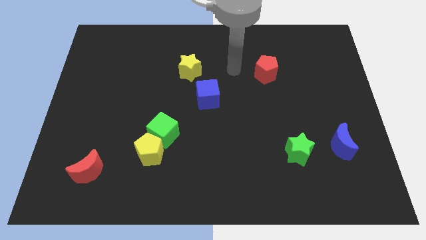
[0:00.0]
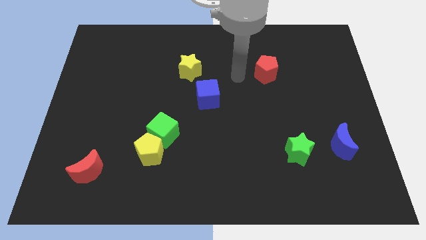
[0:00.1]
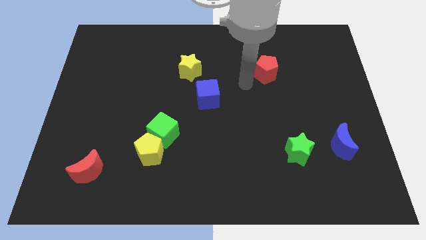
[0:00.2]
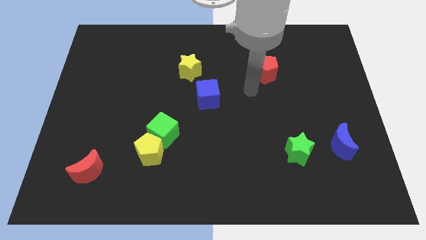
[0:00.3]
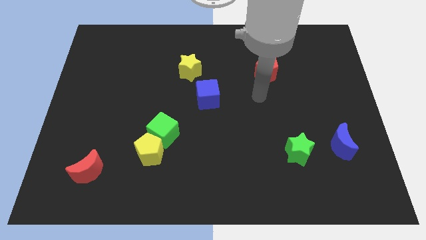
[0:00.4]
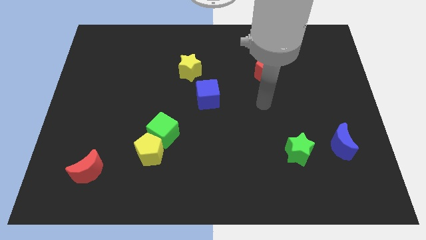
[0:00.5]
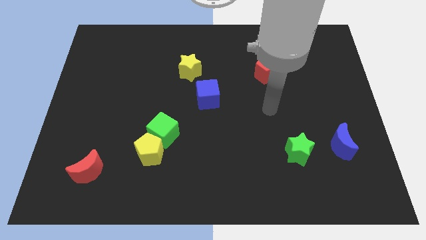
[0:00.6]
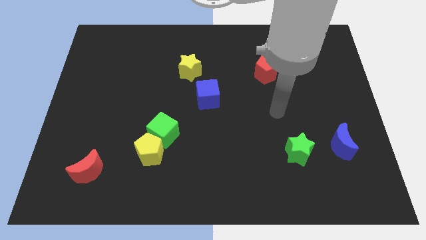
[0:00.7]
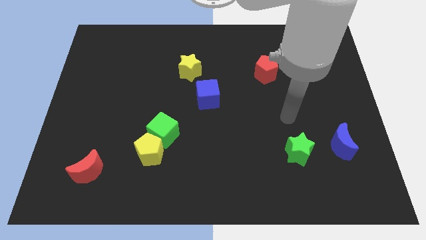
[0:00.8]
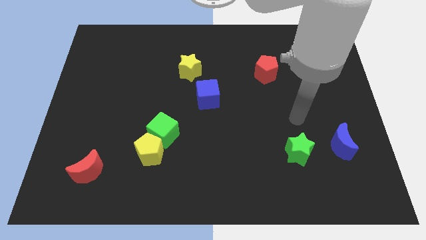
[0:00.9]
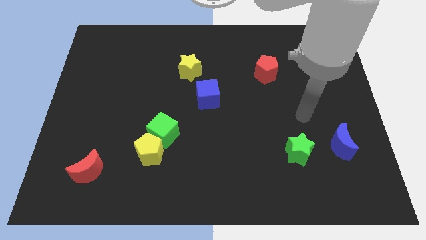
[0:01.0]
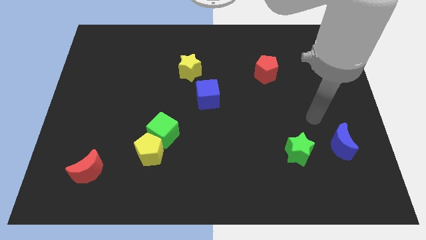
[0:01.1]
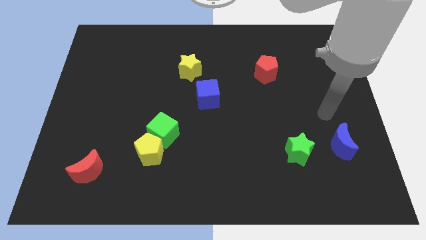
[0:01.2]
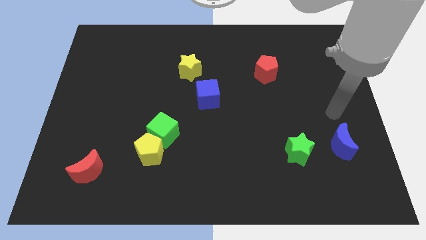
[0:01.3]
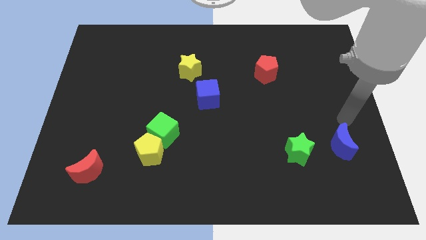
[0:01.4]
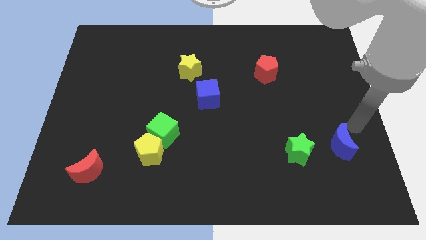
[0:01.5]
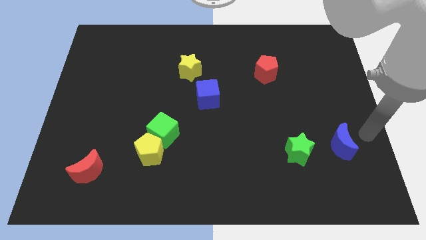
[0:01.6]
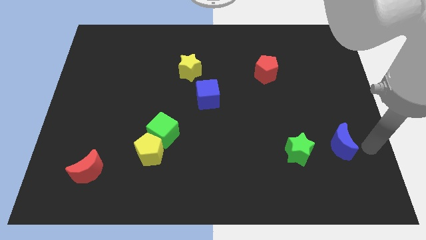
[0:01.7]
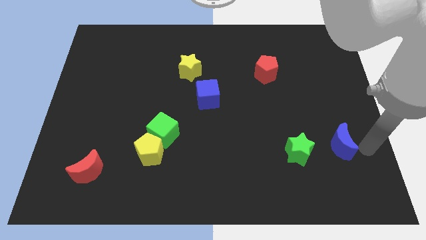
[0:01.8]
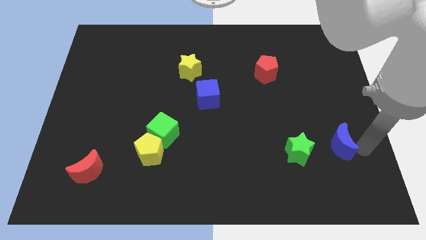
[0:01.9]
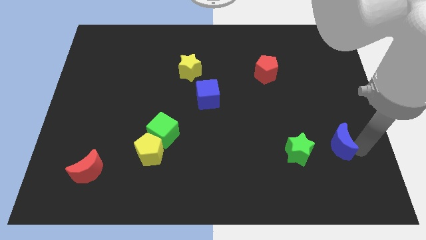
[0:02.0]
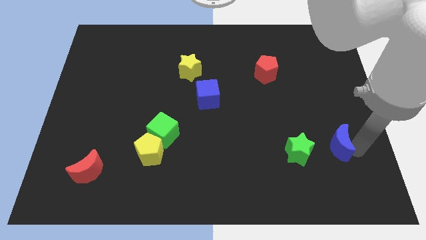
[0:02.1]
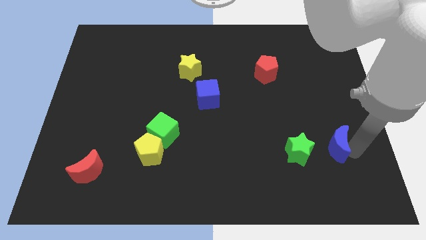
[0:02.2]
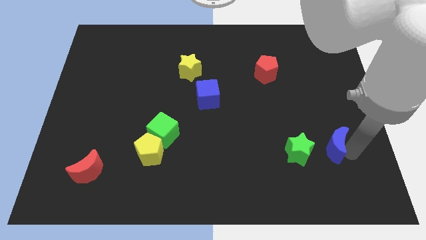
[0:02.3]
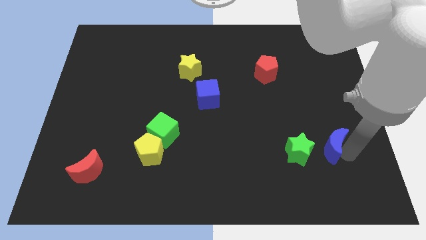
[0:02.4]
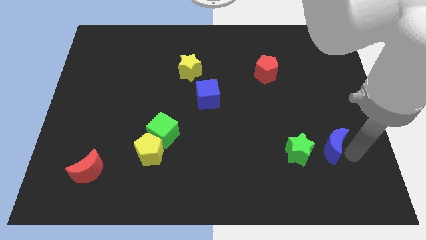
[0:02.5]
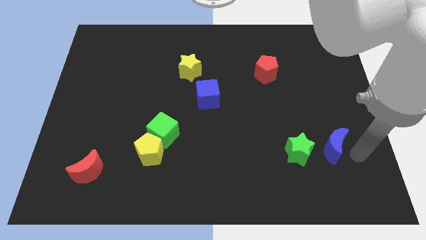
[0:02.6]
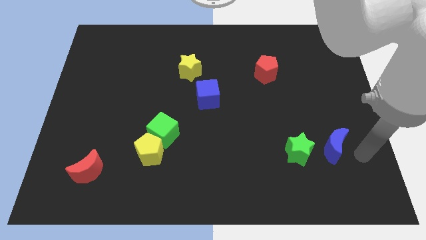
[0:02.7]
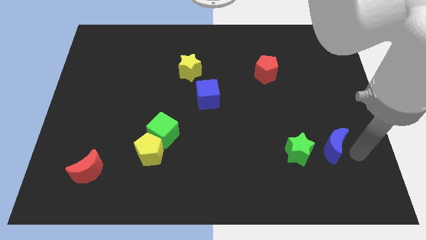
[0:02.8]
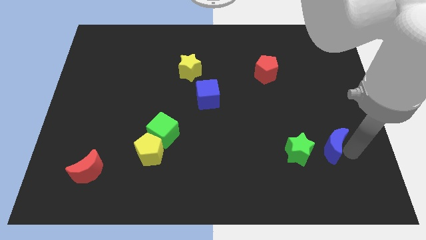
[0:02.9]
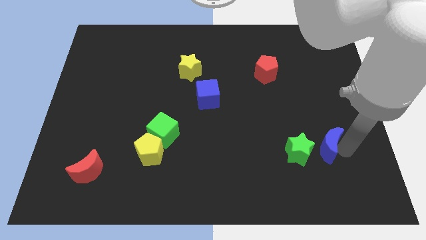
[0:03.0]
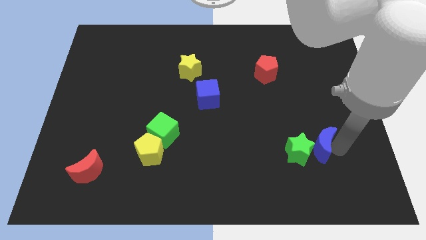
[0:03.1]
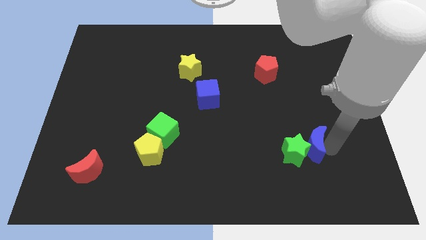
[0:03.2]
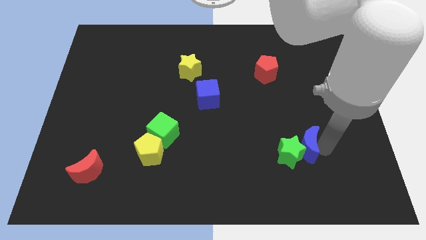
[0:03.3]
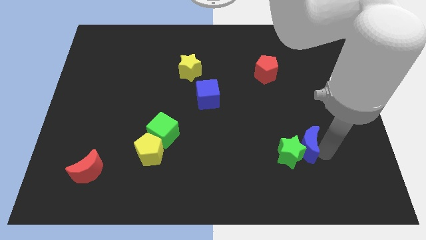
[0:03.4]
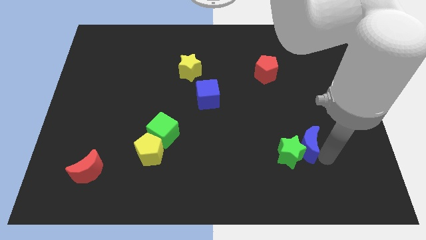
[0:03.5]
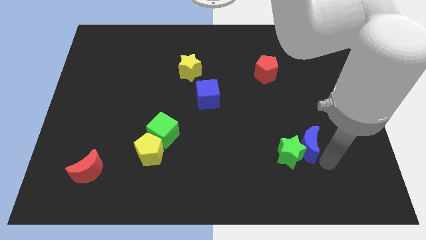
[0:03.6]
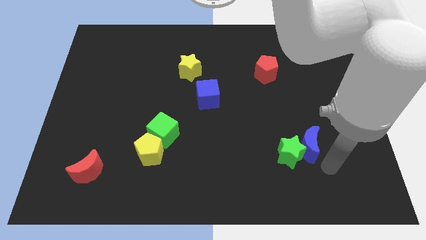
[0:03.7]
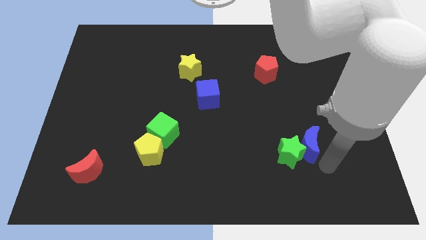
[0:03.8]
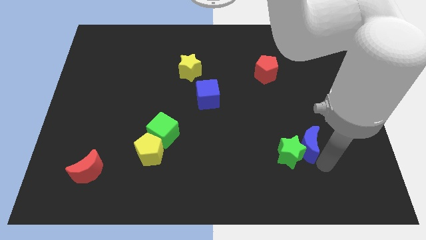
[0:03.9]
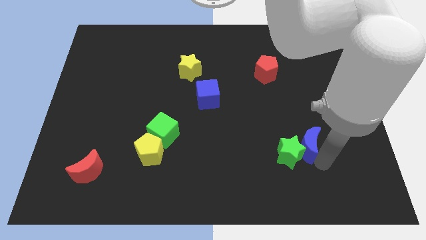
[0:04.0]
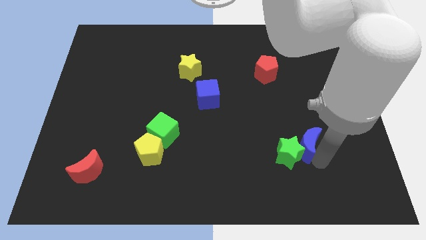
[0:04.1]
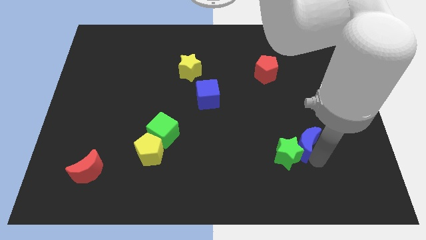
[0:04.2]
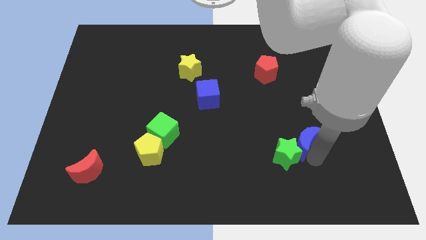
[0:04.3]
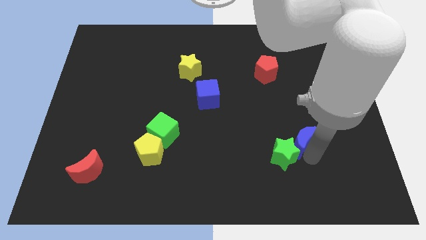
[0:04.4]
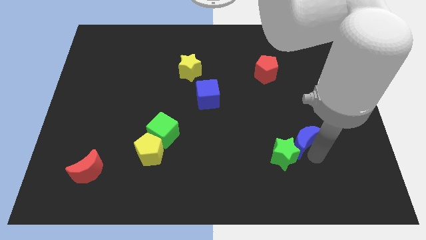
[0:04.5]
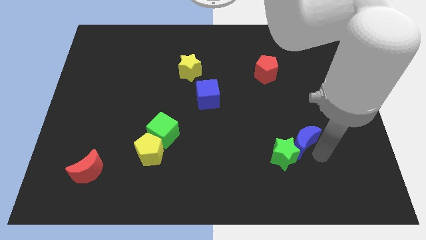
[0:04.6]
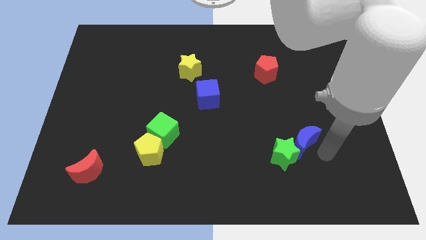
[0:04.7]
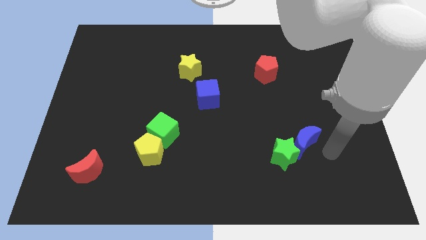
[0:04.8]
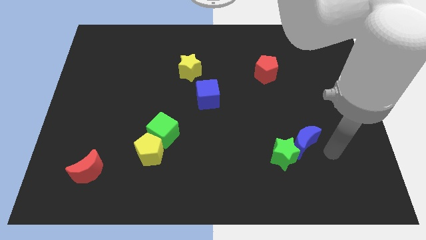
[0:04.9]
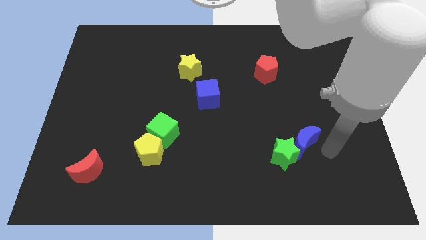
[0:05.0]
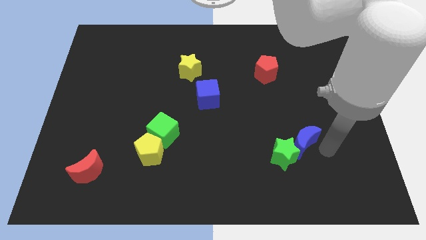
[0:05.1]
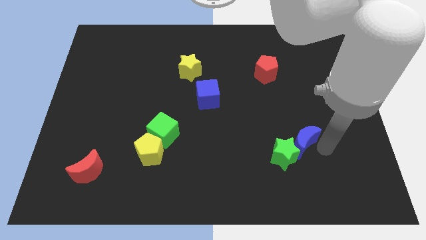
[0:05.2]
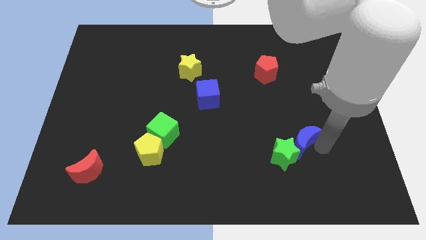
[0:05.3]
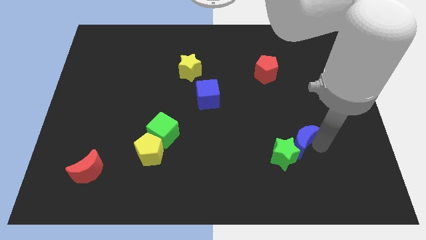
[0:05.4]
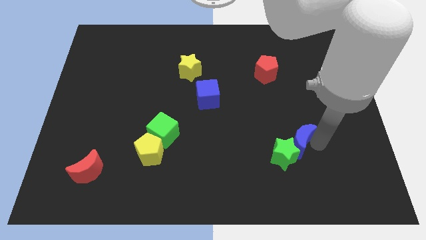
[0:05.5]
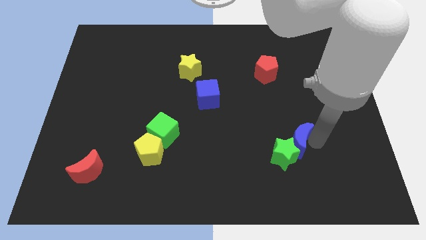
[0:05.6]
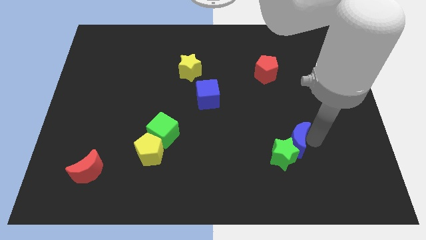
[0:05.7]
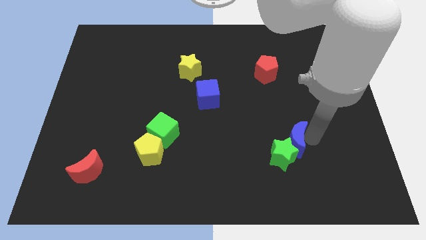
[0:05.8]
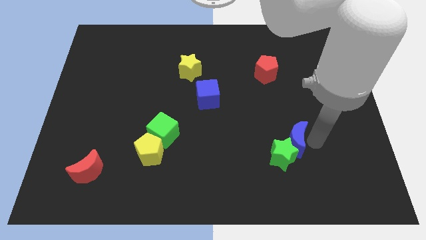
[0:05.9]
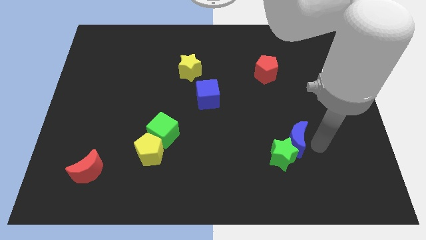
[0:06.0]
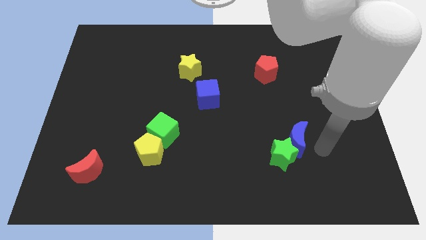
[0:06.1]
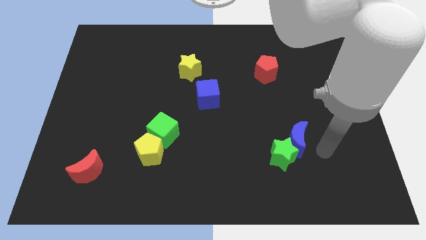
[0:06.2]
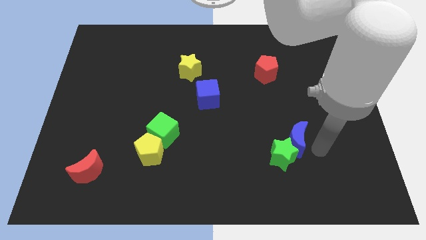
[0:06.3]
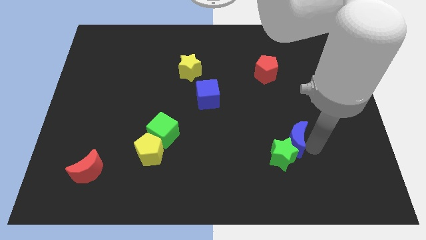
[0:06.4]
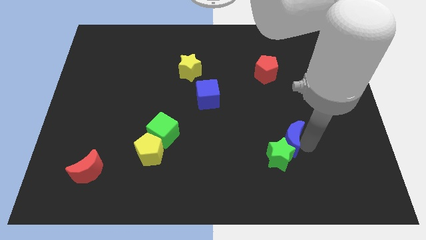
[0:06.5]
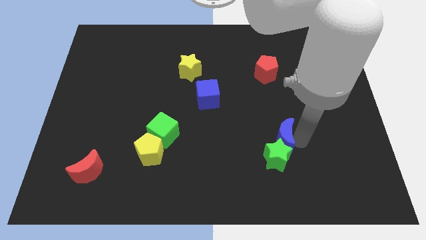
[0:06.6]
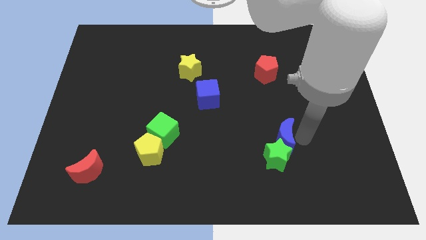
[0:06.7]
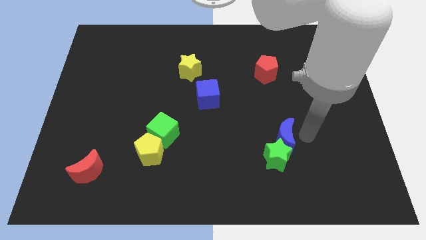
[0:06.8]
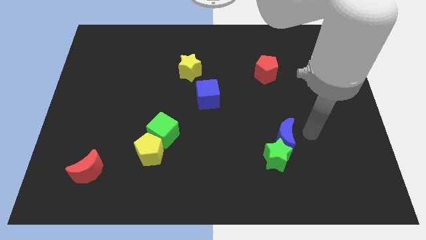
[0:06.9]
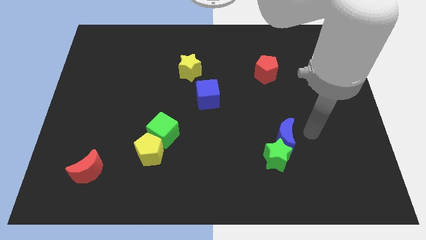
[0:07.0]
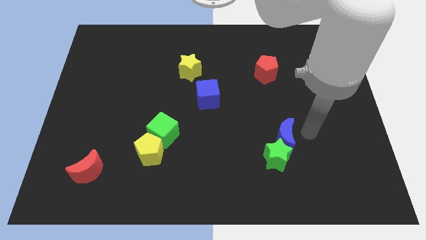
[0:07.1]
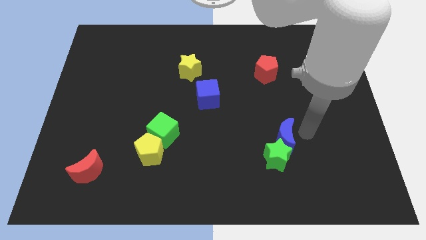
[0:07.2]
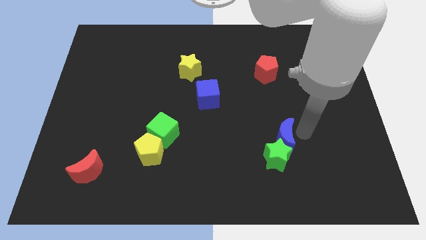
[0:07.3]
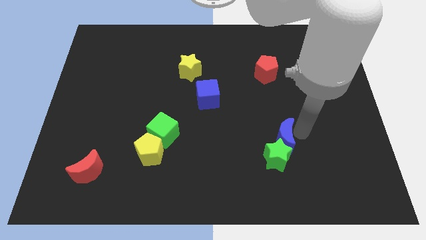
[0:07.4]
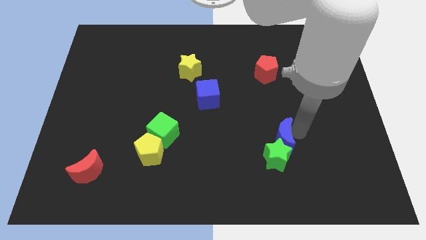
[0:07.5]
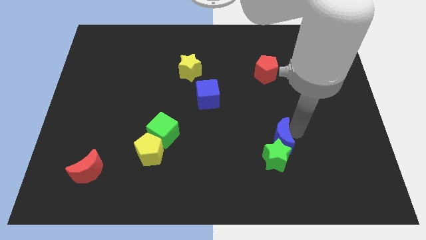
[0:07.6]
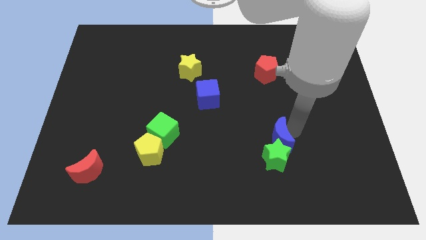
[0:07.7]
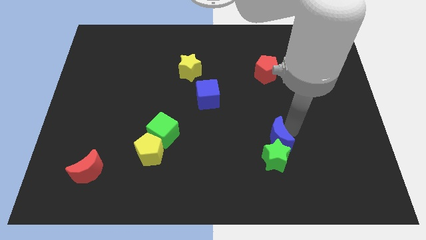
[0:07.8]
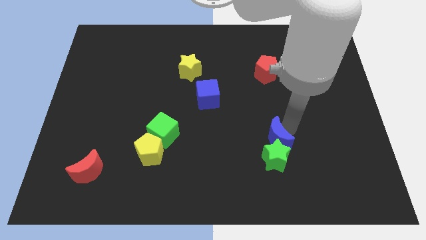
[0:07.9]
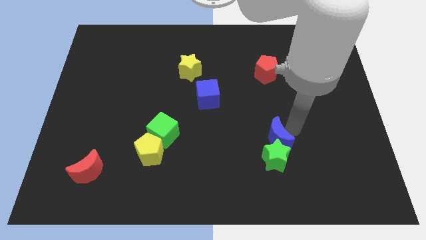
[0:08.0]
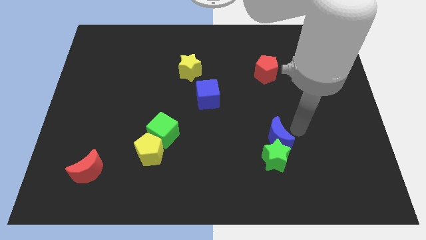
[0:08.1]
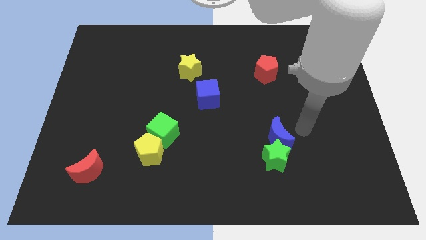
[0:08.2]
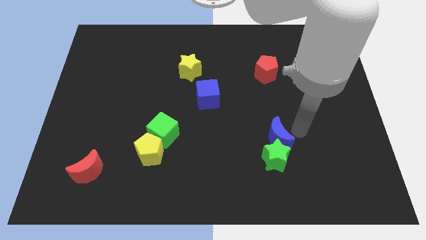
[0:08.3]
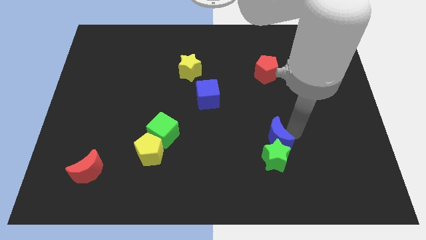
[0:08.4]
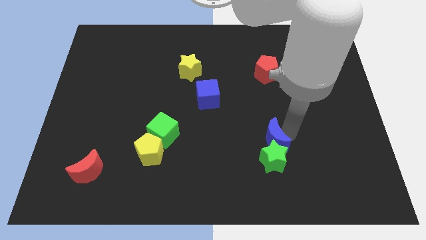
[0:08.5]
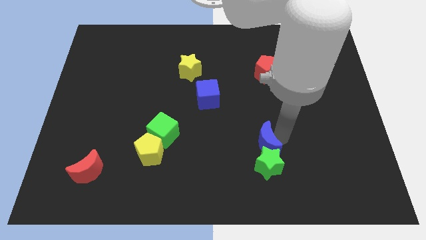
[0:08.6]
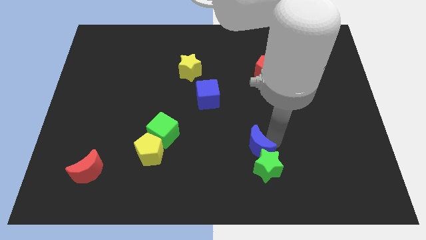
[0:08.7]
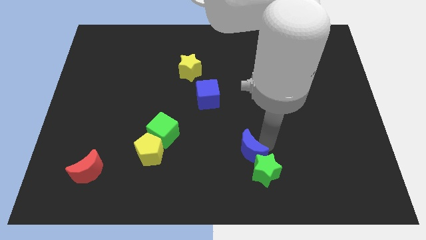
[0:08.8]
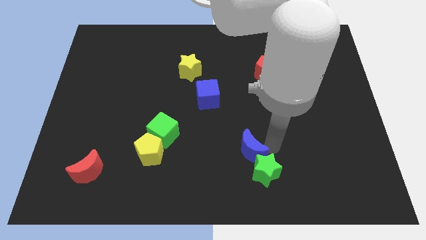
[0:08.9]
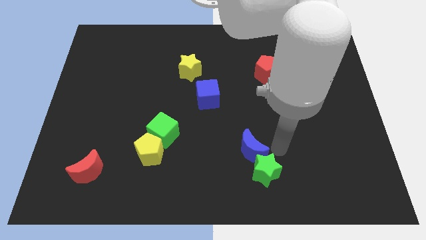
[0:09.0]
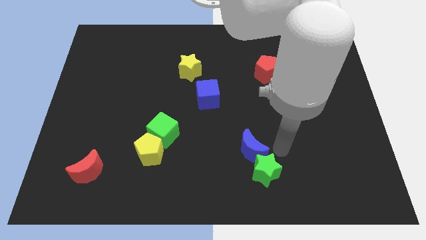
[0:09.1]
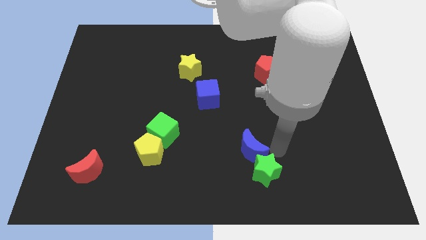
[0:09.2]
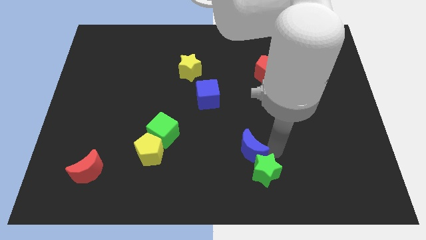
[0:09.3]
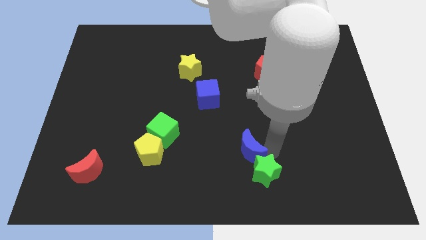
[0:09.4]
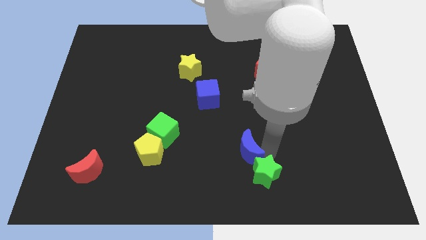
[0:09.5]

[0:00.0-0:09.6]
push the blue moon left
